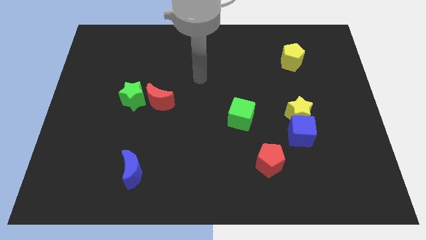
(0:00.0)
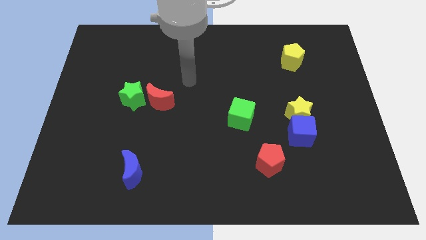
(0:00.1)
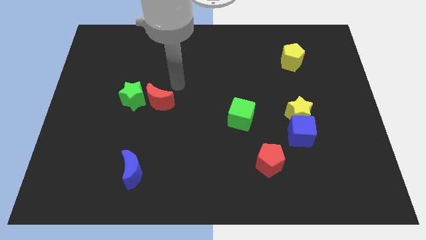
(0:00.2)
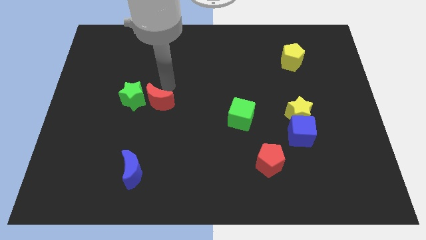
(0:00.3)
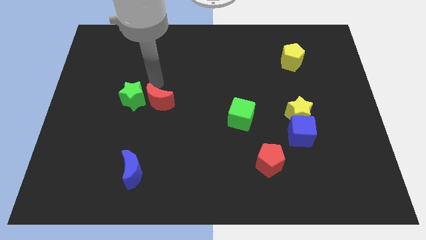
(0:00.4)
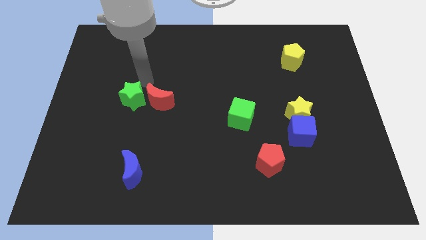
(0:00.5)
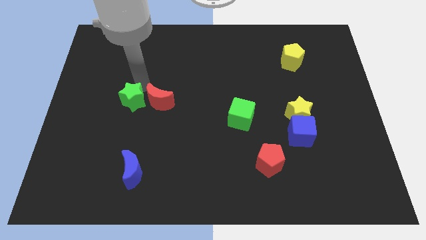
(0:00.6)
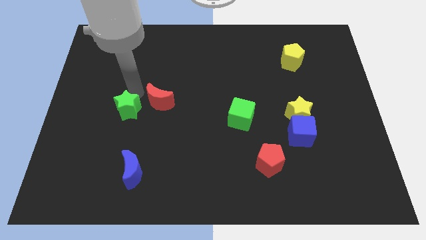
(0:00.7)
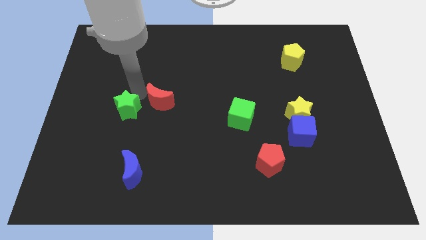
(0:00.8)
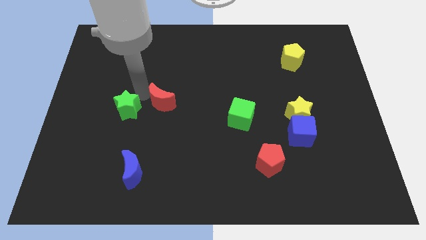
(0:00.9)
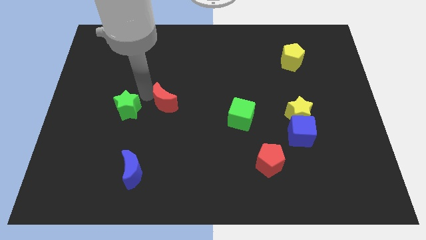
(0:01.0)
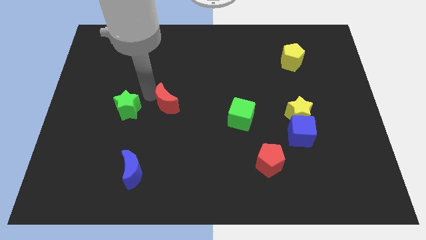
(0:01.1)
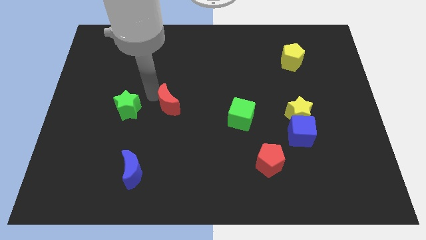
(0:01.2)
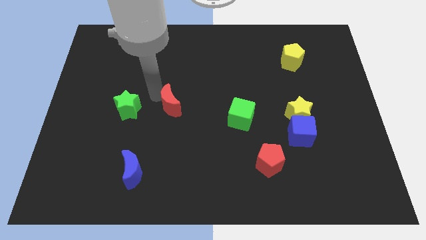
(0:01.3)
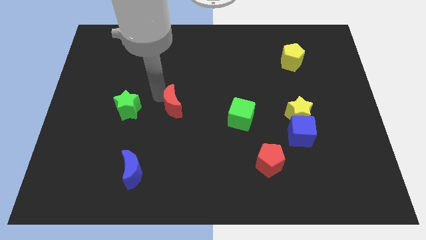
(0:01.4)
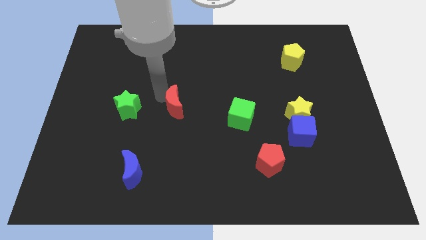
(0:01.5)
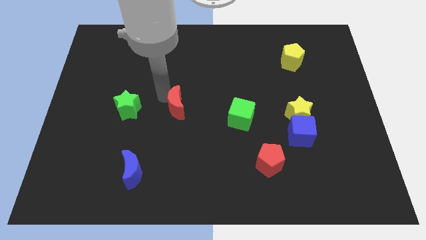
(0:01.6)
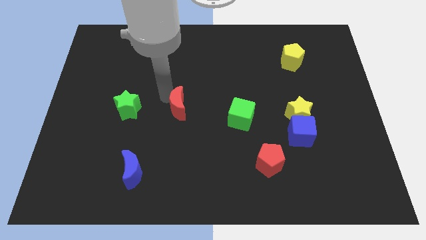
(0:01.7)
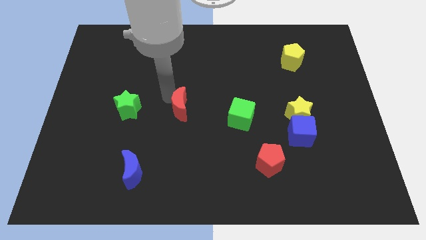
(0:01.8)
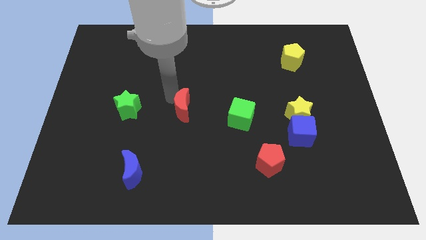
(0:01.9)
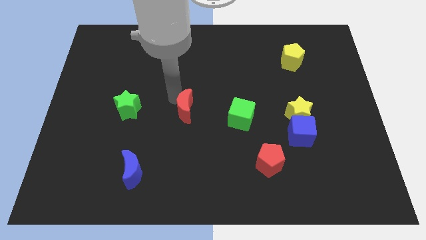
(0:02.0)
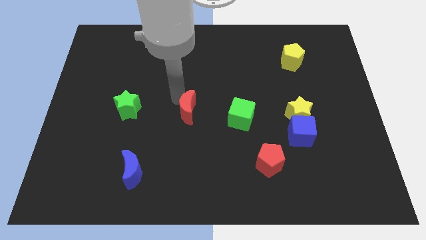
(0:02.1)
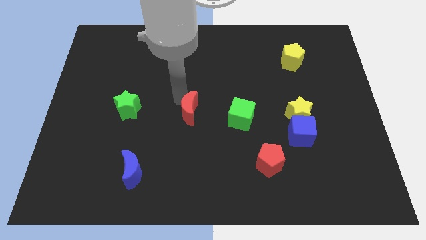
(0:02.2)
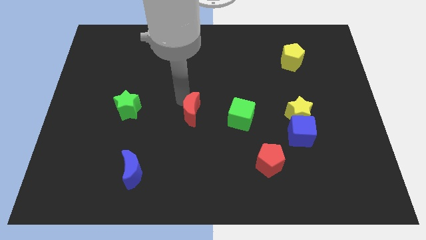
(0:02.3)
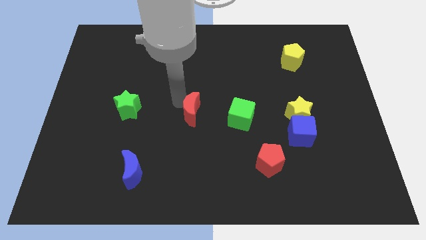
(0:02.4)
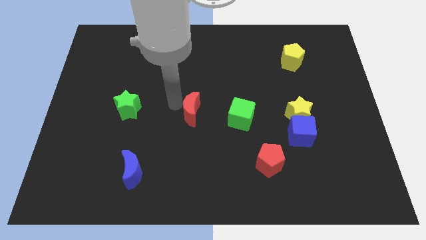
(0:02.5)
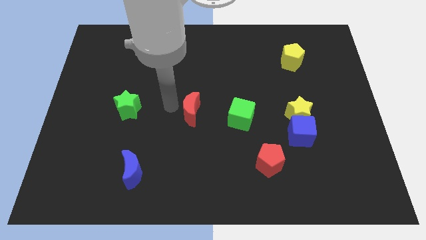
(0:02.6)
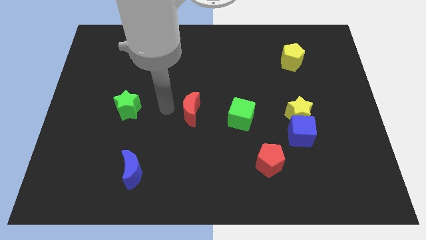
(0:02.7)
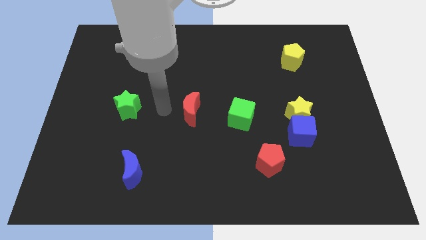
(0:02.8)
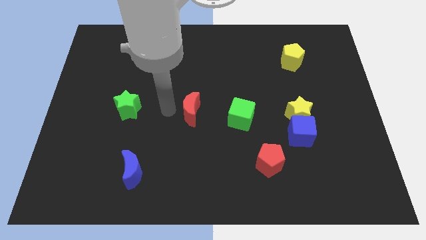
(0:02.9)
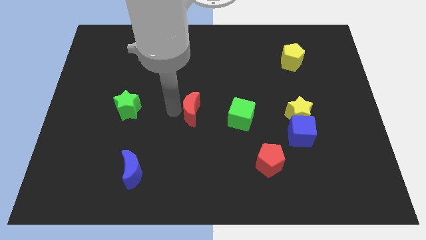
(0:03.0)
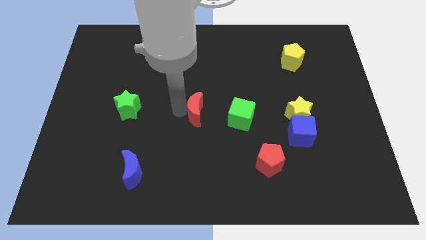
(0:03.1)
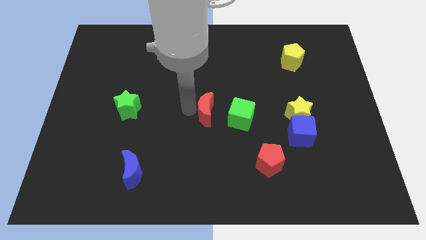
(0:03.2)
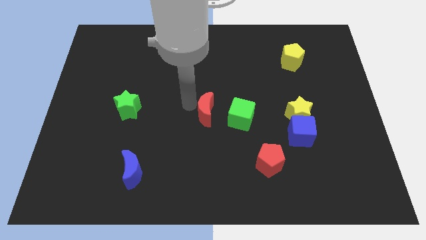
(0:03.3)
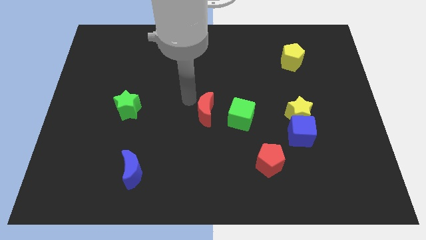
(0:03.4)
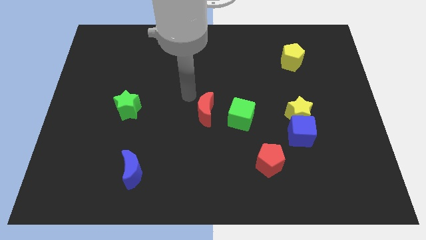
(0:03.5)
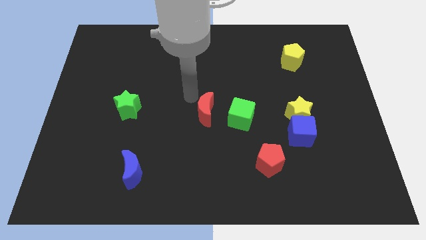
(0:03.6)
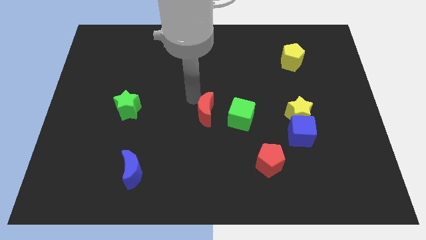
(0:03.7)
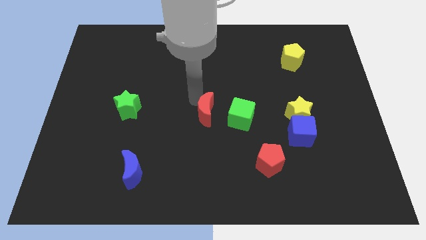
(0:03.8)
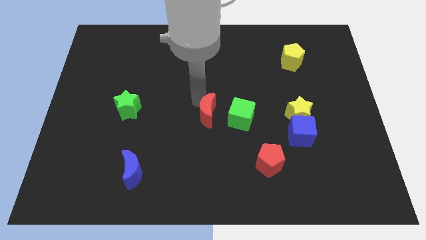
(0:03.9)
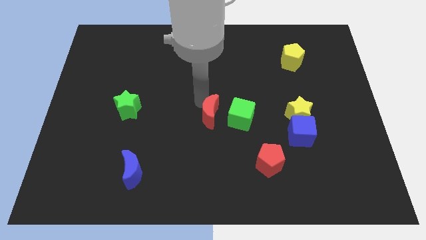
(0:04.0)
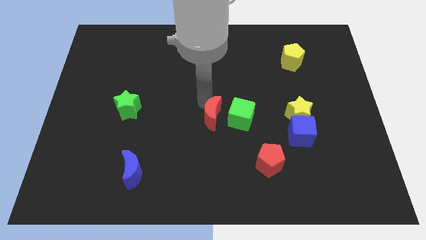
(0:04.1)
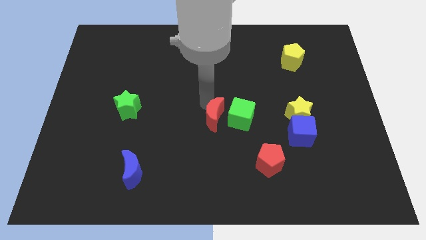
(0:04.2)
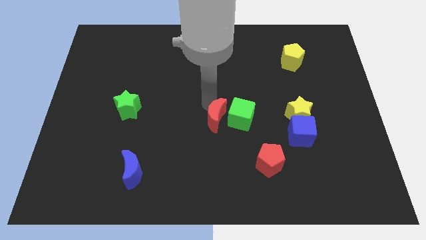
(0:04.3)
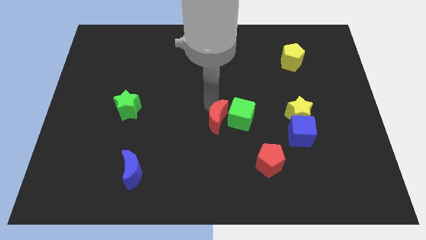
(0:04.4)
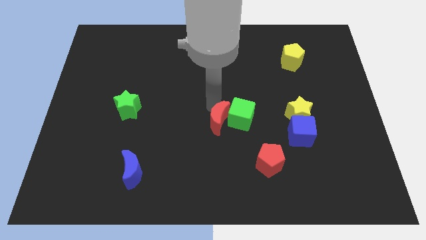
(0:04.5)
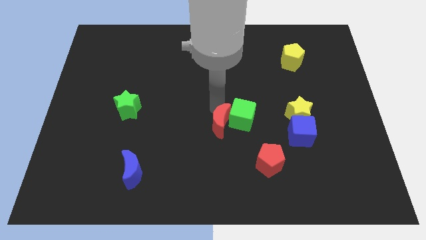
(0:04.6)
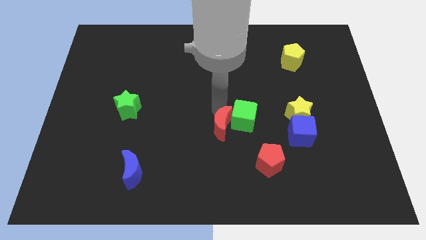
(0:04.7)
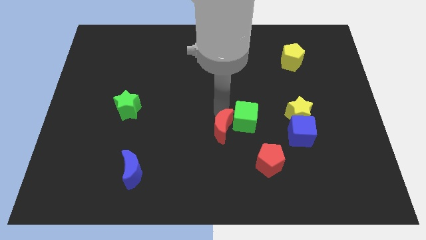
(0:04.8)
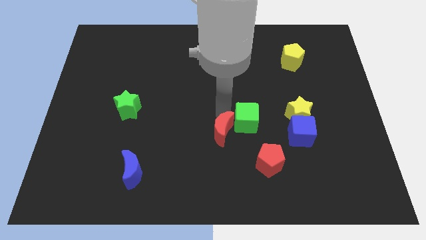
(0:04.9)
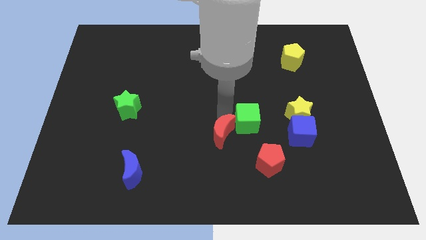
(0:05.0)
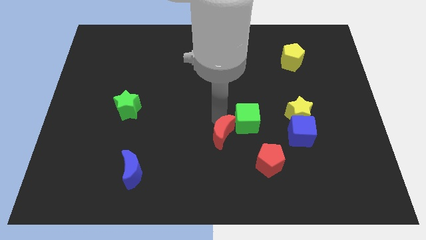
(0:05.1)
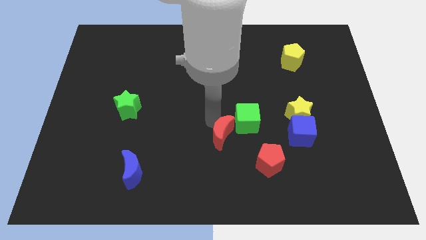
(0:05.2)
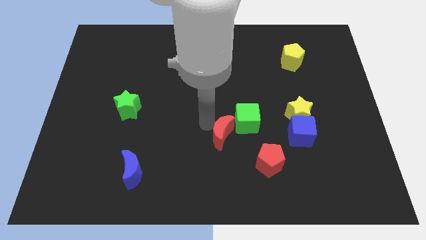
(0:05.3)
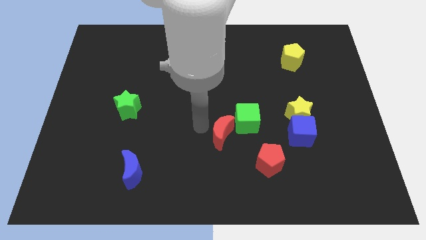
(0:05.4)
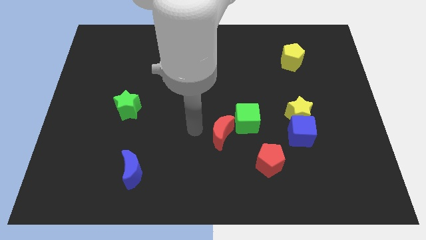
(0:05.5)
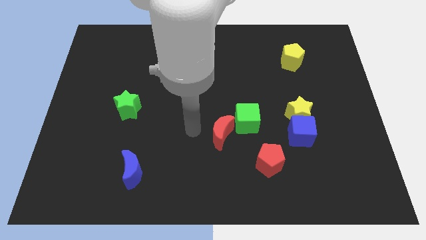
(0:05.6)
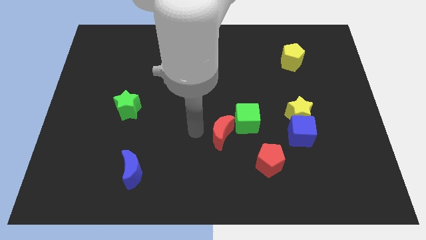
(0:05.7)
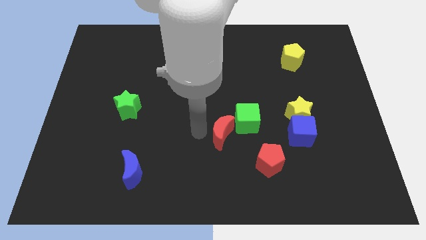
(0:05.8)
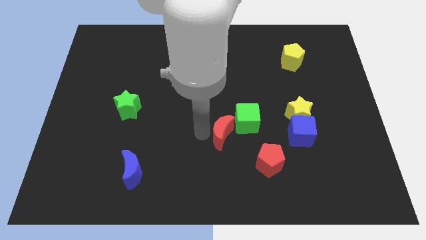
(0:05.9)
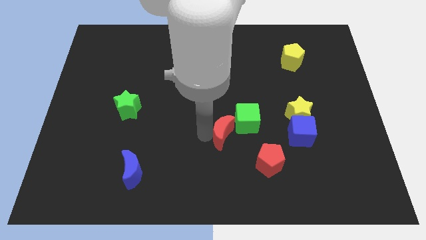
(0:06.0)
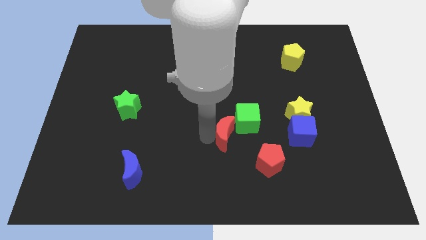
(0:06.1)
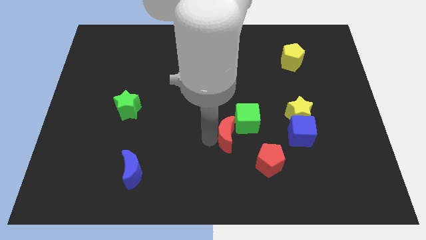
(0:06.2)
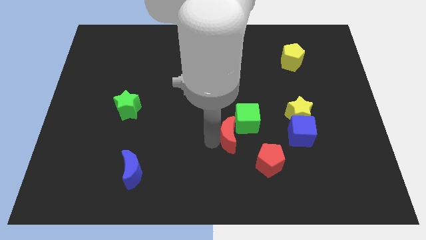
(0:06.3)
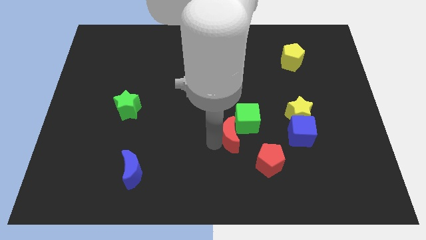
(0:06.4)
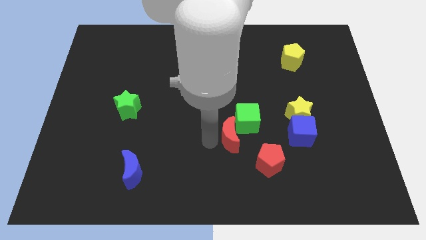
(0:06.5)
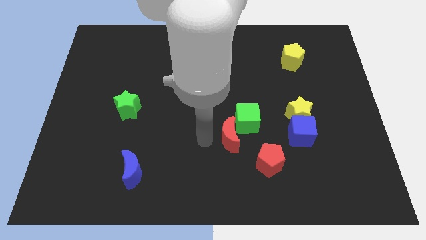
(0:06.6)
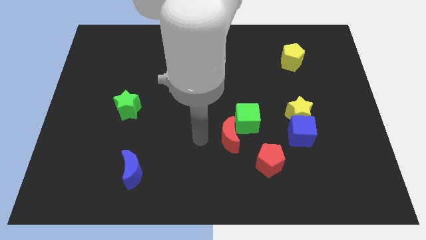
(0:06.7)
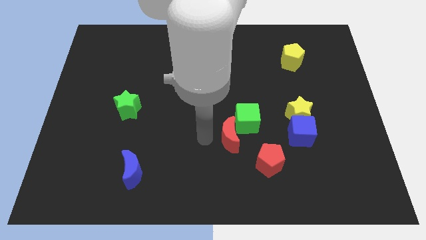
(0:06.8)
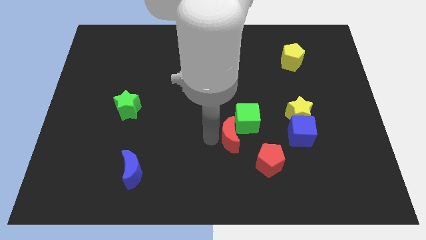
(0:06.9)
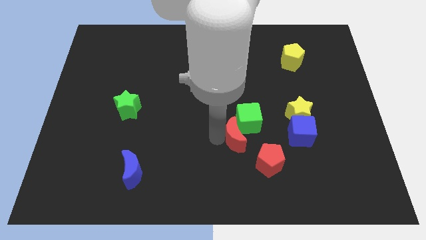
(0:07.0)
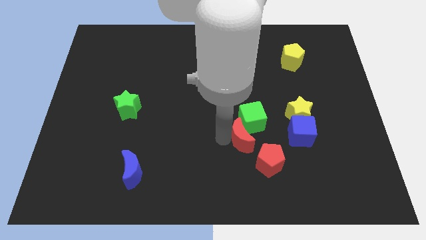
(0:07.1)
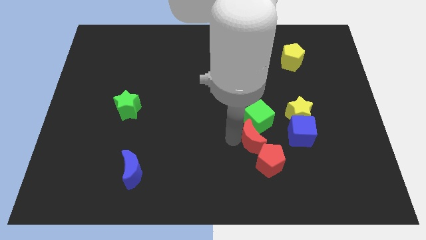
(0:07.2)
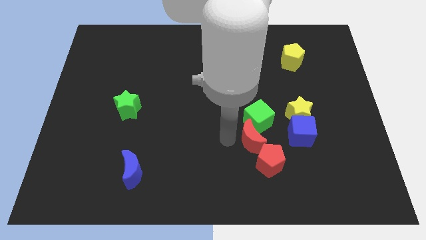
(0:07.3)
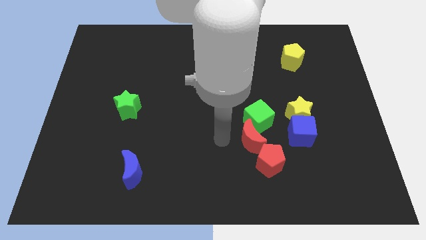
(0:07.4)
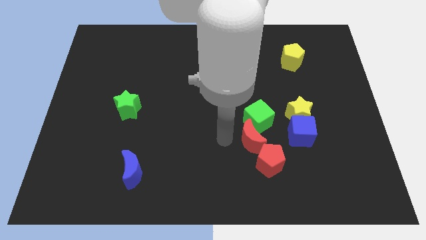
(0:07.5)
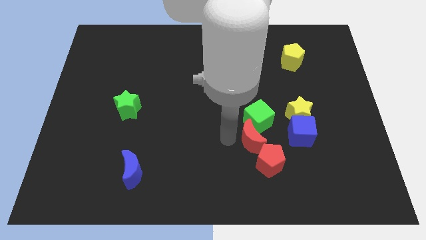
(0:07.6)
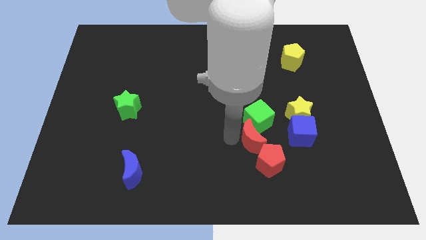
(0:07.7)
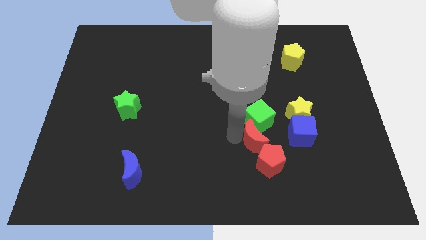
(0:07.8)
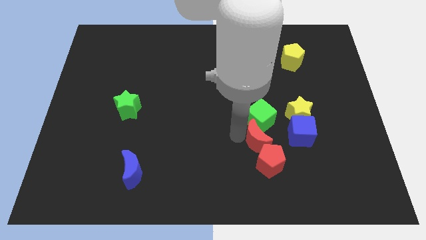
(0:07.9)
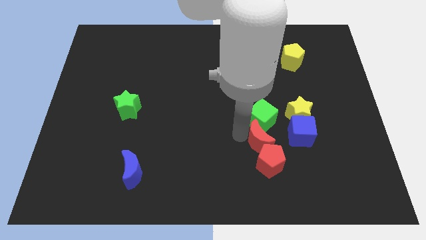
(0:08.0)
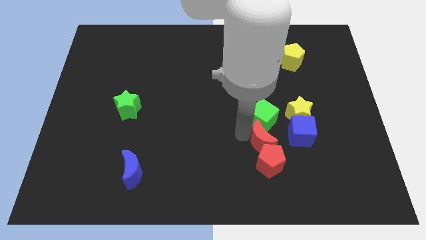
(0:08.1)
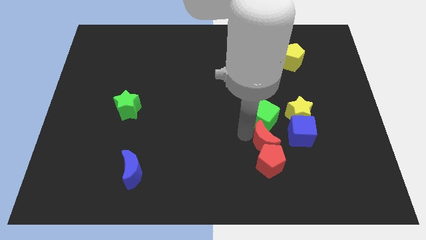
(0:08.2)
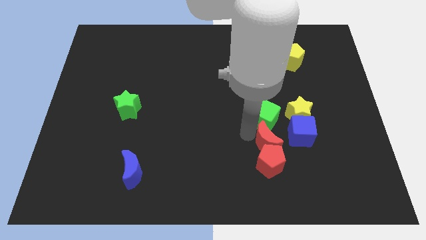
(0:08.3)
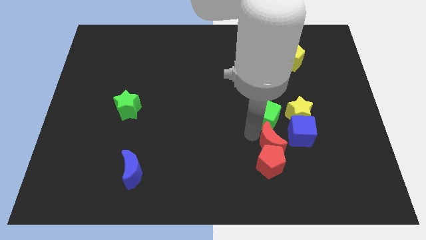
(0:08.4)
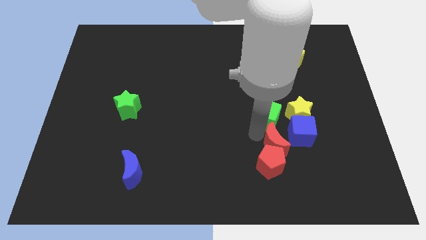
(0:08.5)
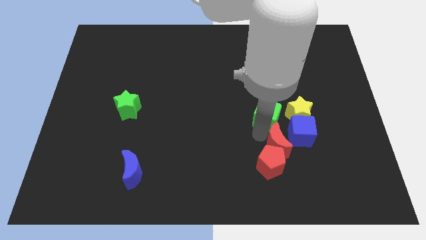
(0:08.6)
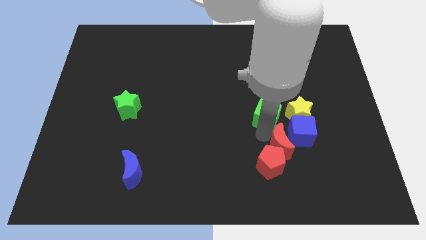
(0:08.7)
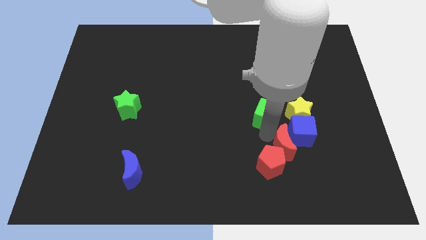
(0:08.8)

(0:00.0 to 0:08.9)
slide the red moon to the bottom side of the yellow star
